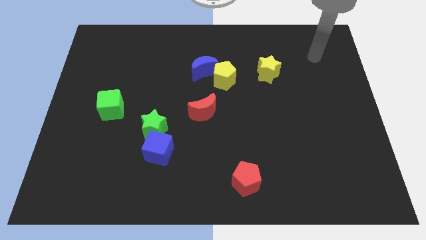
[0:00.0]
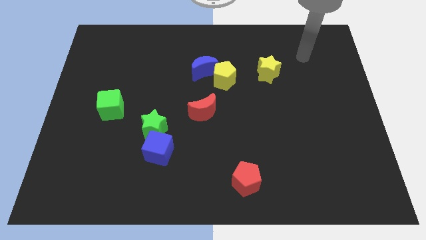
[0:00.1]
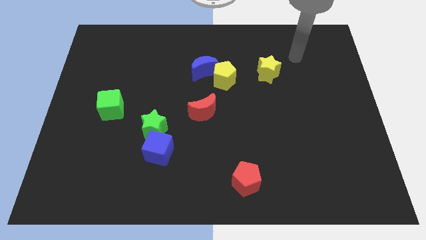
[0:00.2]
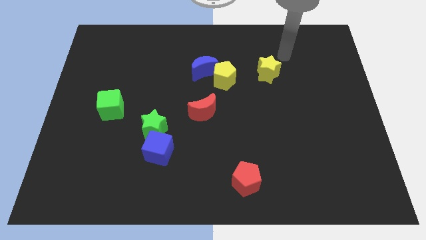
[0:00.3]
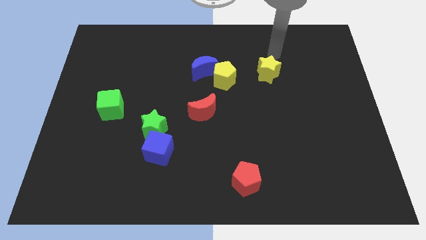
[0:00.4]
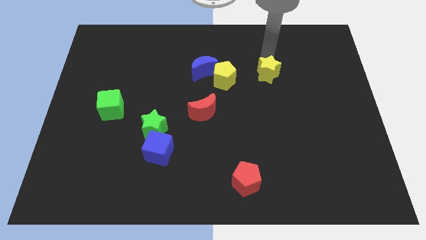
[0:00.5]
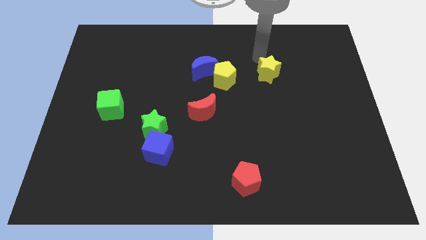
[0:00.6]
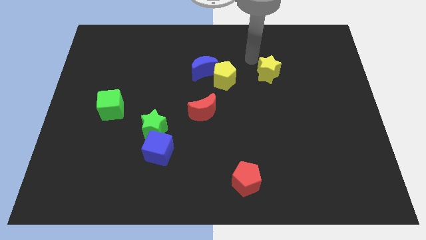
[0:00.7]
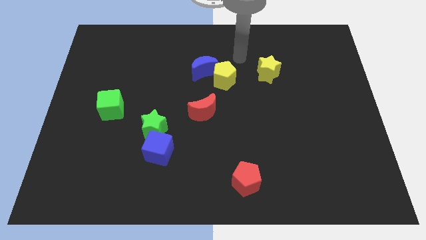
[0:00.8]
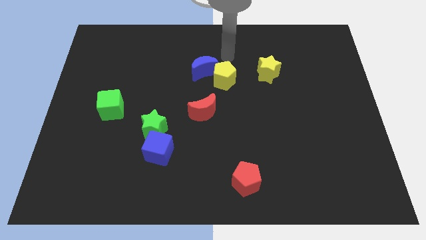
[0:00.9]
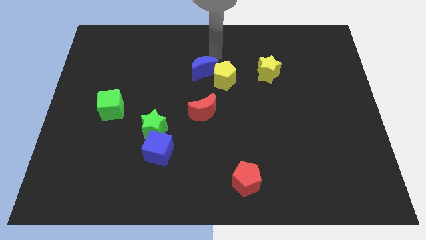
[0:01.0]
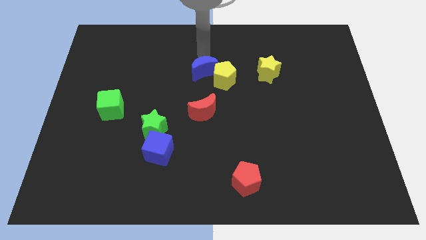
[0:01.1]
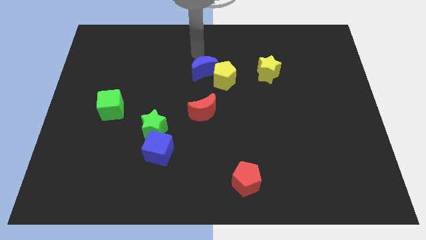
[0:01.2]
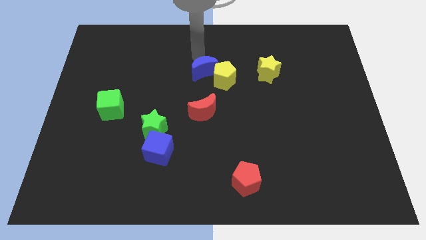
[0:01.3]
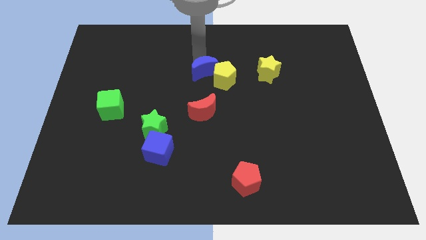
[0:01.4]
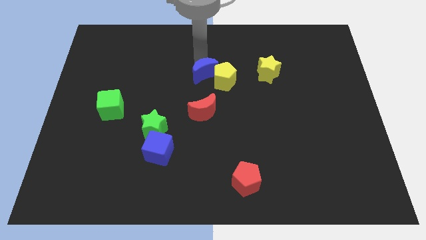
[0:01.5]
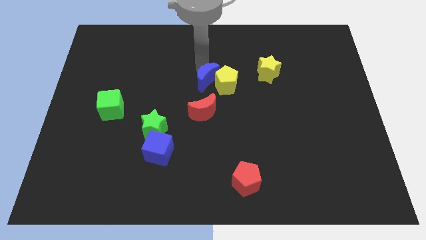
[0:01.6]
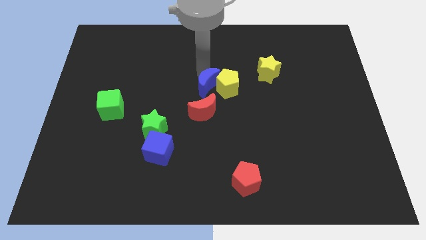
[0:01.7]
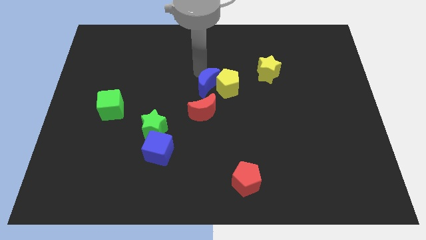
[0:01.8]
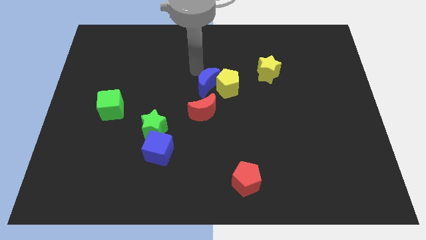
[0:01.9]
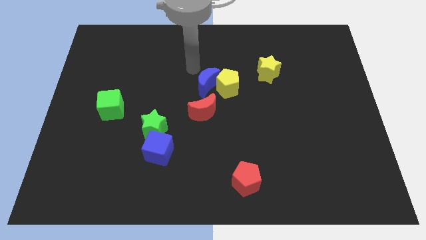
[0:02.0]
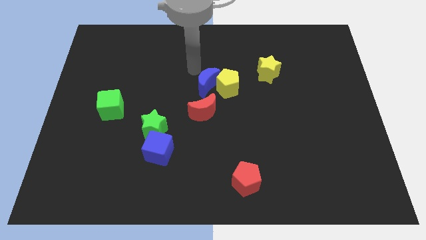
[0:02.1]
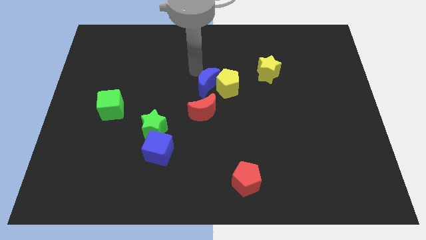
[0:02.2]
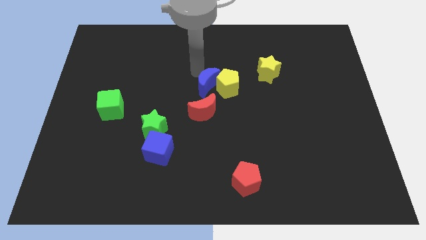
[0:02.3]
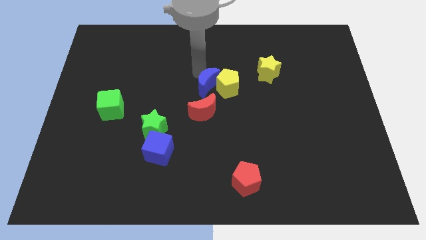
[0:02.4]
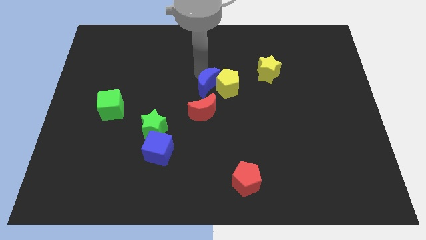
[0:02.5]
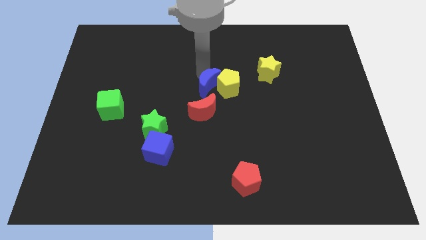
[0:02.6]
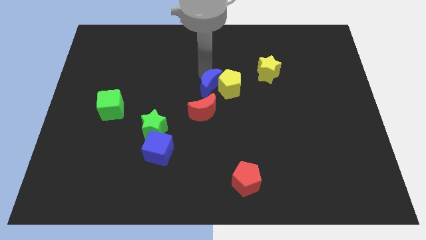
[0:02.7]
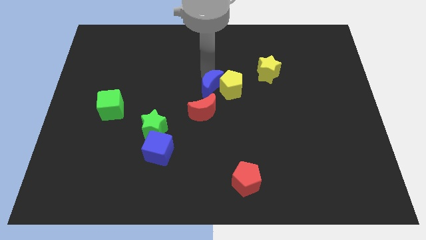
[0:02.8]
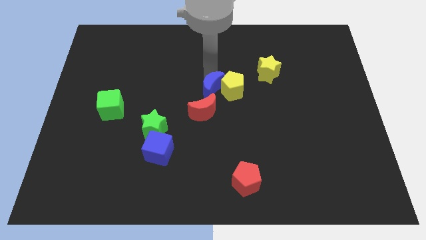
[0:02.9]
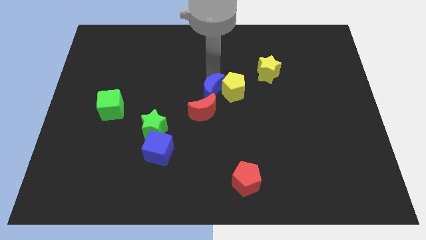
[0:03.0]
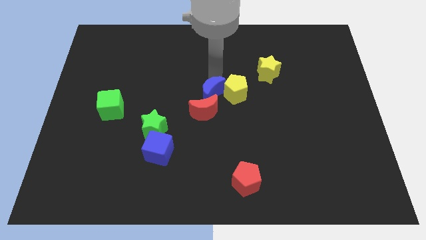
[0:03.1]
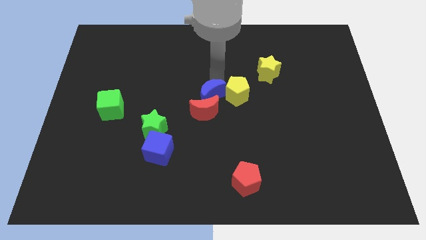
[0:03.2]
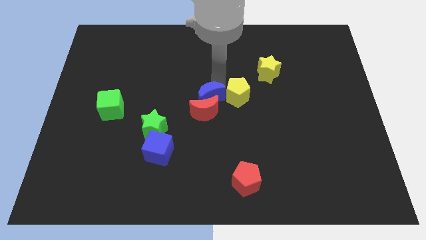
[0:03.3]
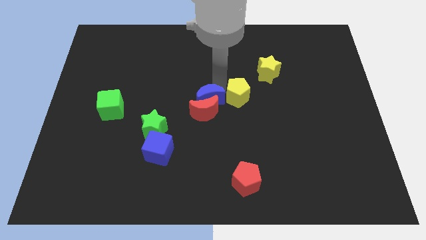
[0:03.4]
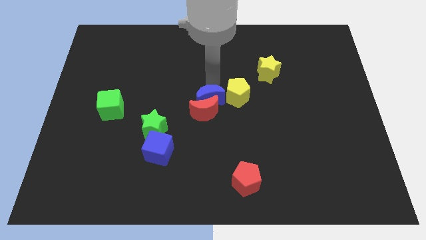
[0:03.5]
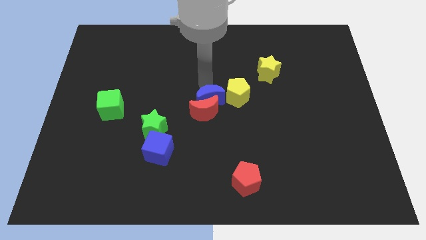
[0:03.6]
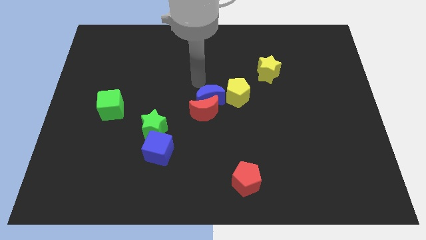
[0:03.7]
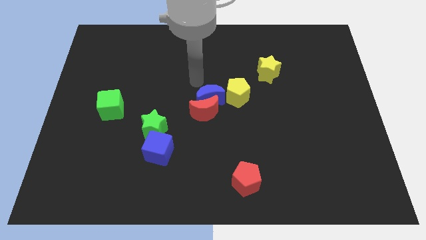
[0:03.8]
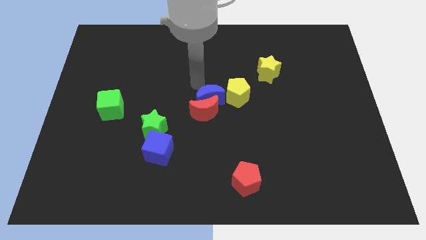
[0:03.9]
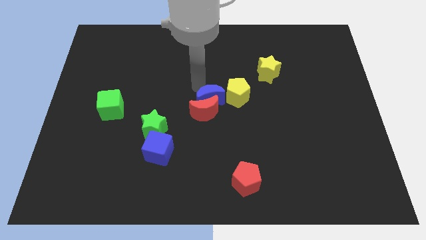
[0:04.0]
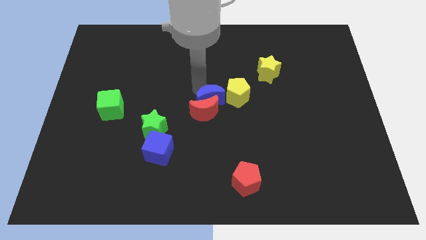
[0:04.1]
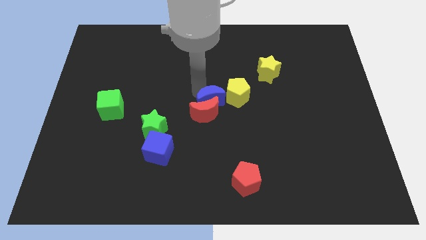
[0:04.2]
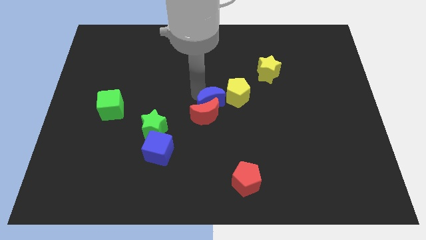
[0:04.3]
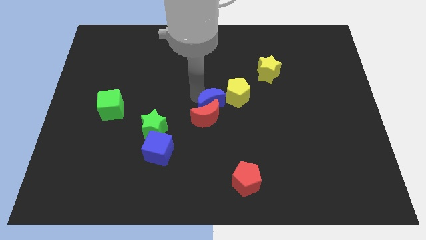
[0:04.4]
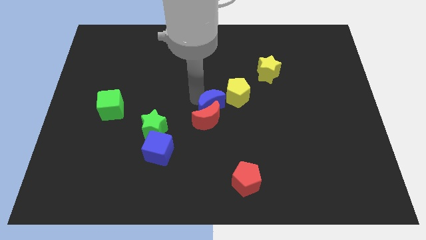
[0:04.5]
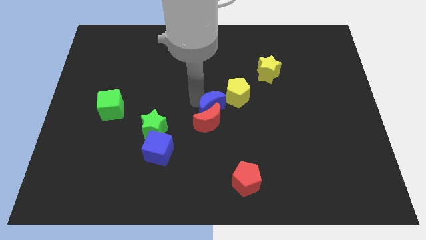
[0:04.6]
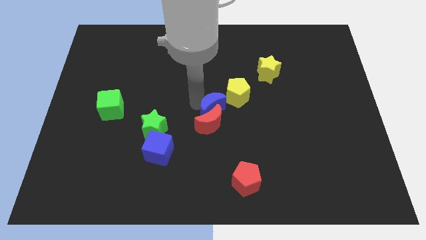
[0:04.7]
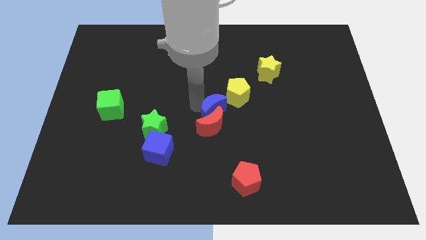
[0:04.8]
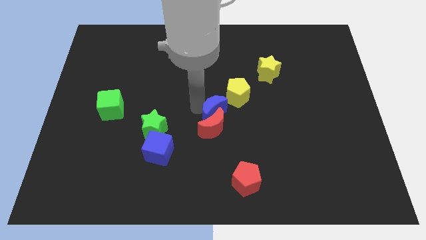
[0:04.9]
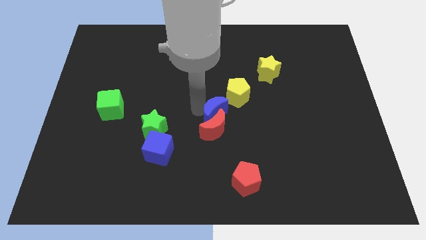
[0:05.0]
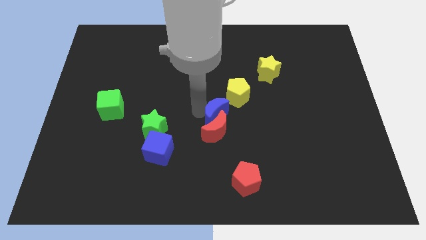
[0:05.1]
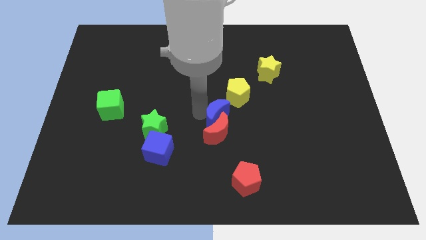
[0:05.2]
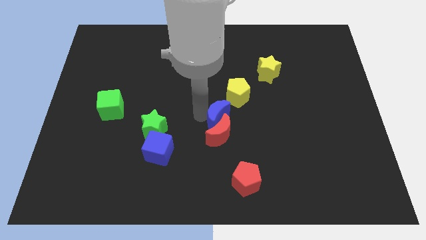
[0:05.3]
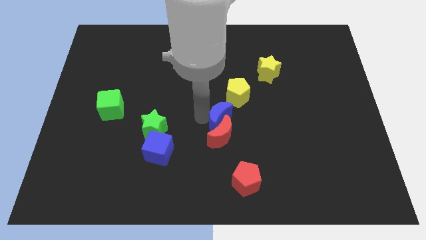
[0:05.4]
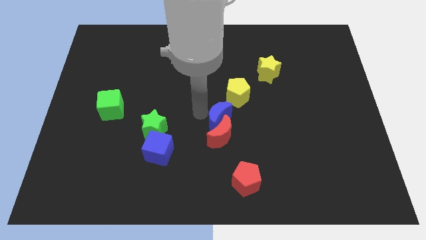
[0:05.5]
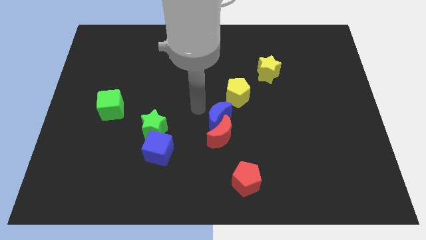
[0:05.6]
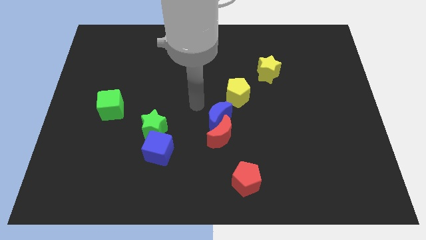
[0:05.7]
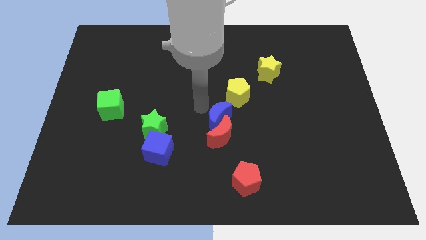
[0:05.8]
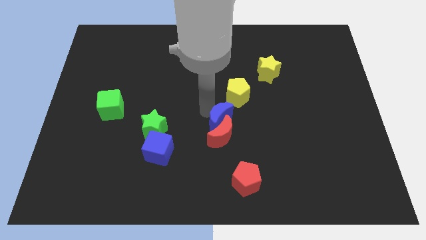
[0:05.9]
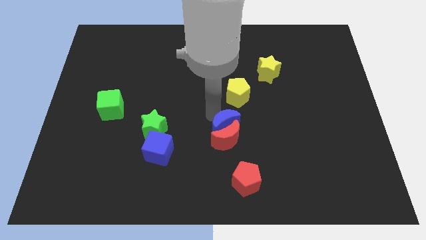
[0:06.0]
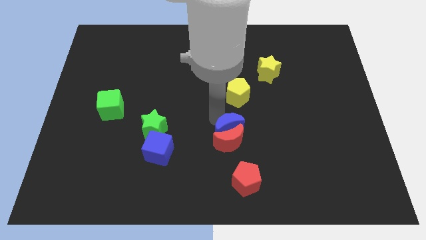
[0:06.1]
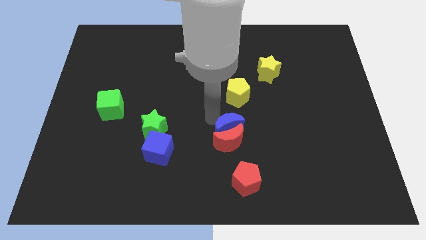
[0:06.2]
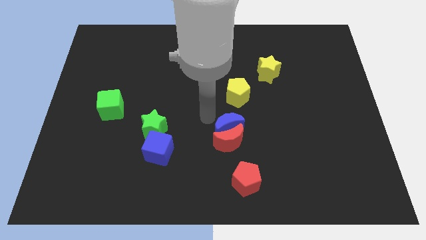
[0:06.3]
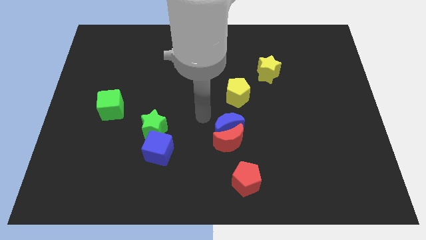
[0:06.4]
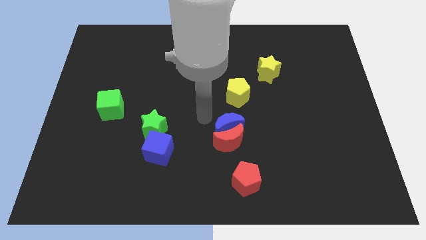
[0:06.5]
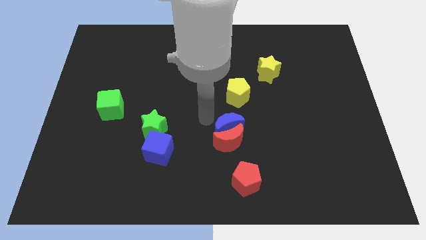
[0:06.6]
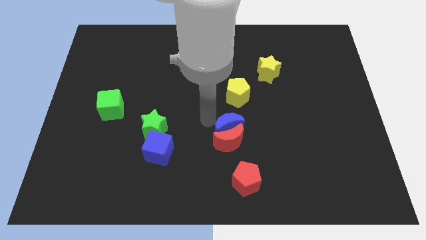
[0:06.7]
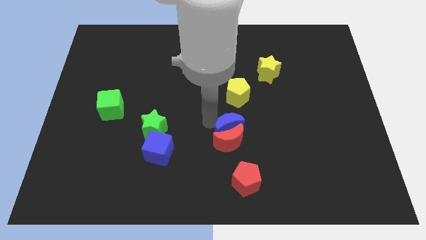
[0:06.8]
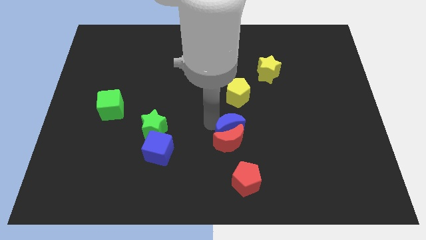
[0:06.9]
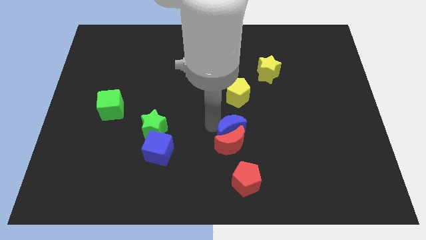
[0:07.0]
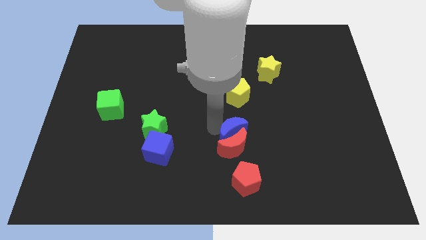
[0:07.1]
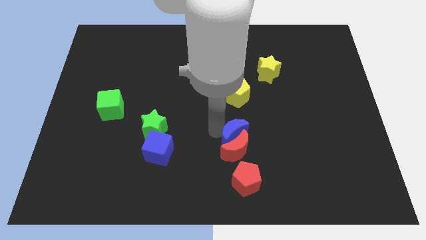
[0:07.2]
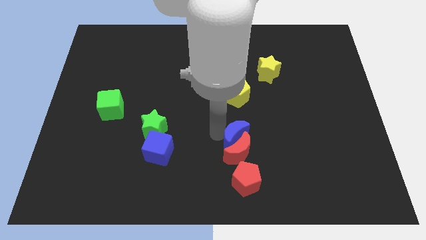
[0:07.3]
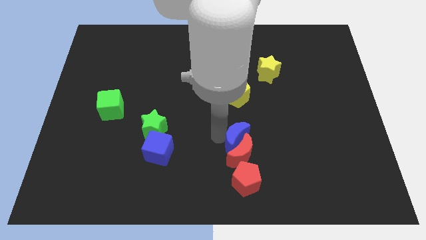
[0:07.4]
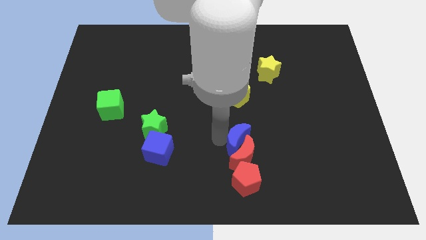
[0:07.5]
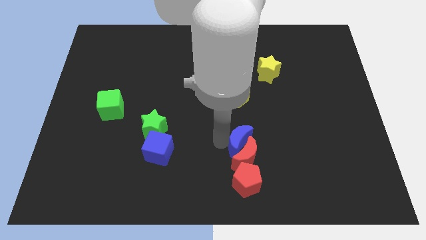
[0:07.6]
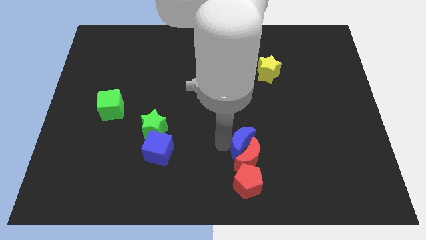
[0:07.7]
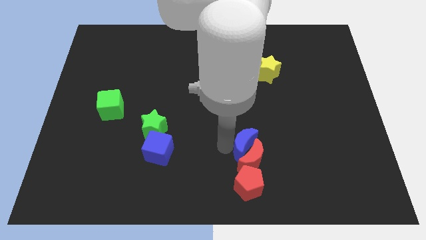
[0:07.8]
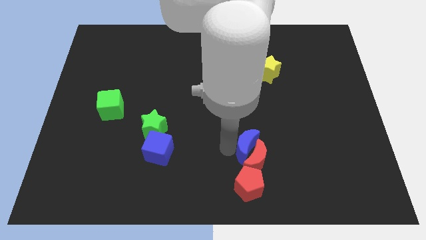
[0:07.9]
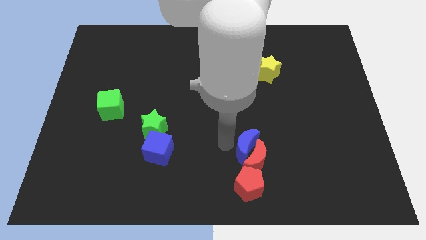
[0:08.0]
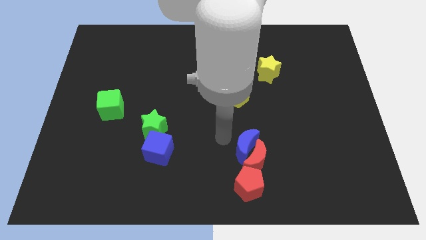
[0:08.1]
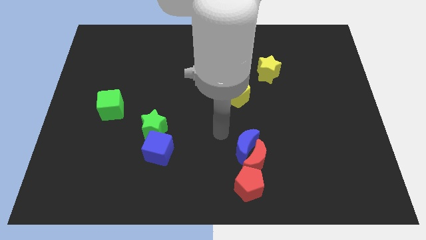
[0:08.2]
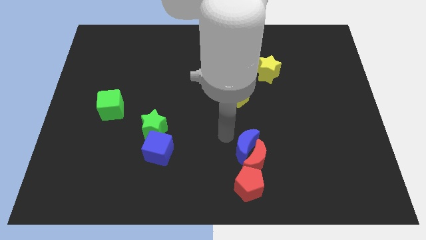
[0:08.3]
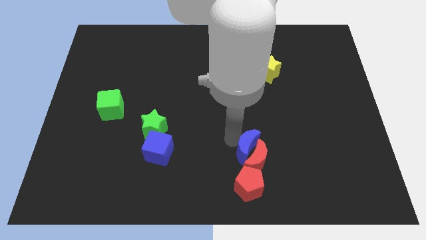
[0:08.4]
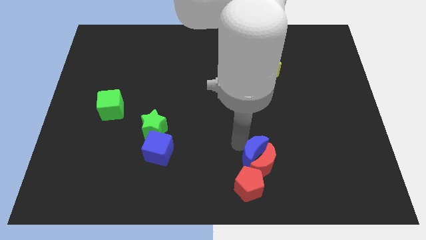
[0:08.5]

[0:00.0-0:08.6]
put the blue moon diagonally up and to the right of the red pentagon
